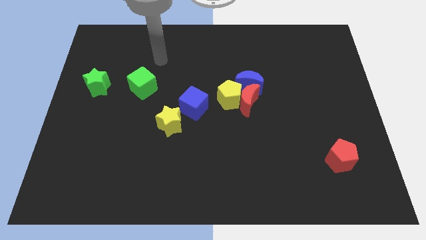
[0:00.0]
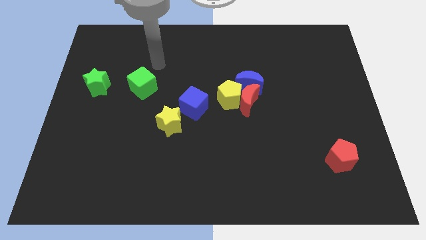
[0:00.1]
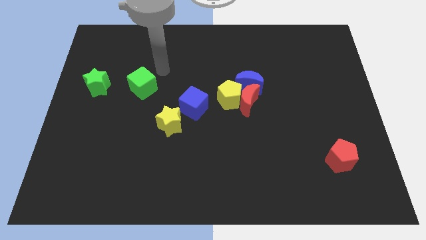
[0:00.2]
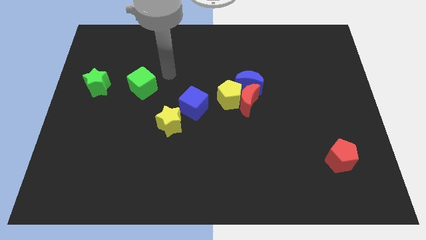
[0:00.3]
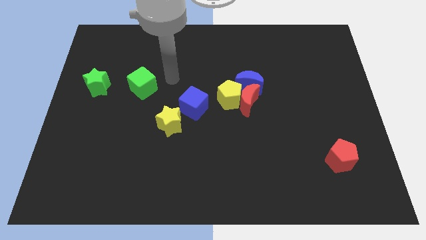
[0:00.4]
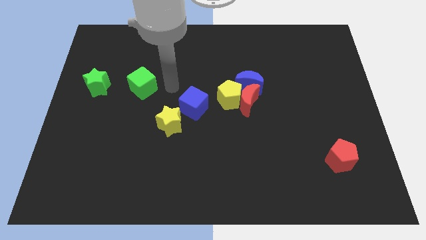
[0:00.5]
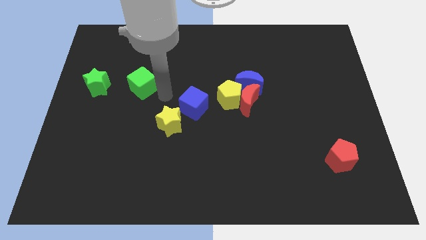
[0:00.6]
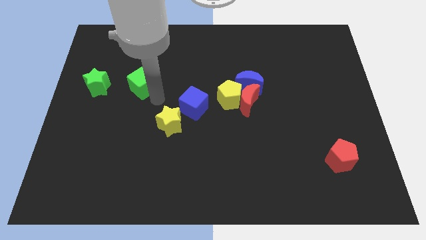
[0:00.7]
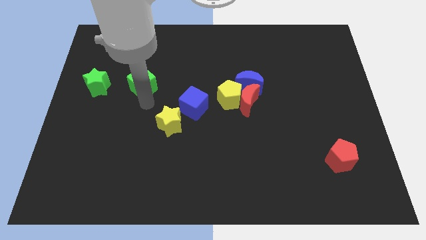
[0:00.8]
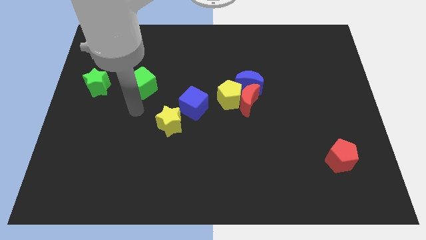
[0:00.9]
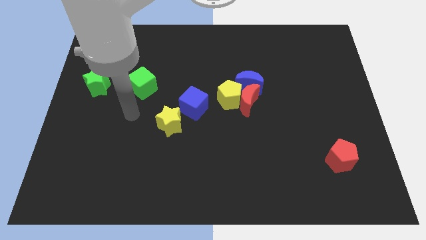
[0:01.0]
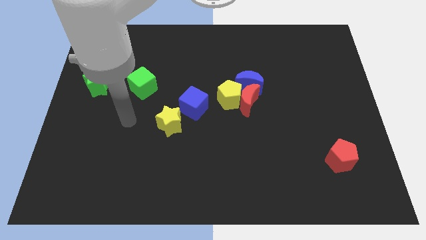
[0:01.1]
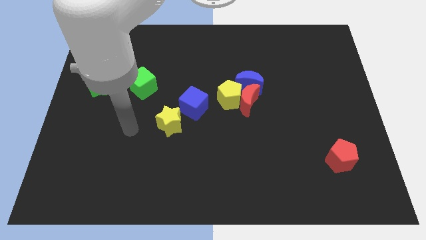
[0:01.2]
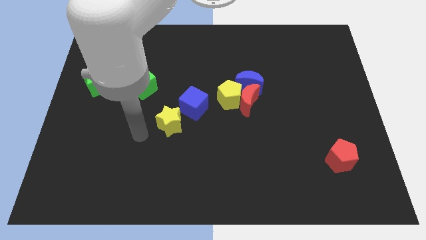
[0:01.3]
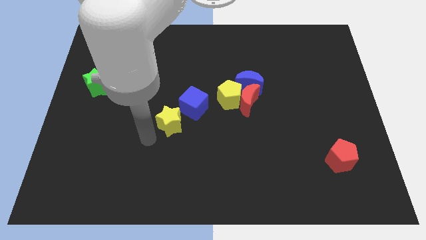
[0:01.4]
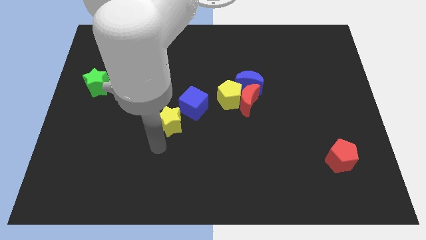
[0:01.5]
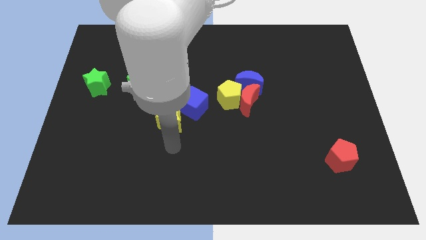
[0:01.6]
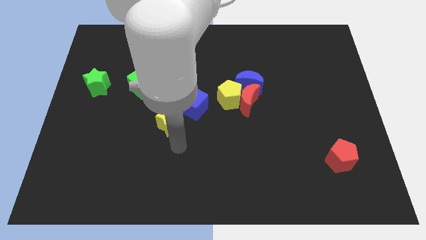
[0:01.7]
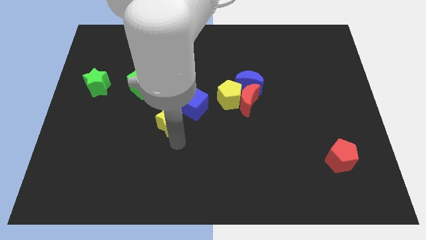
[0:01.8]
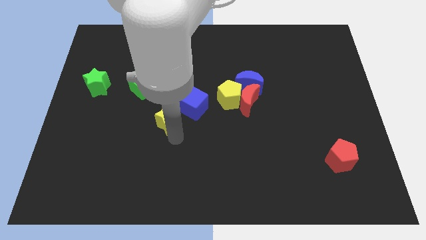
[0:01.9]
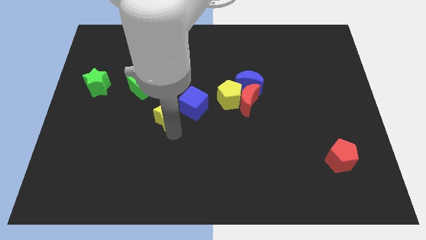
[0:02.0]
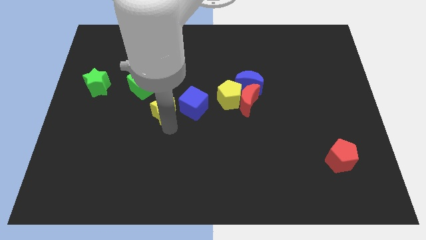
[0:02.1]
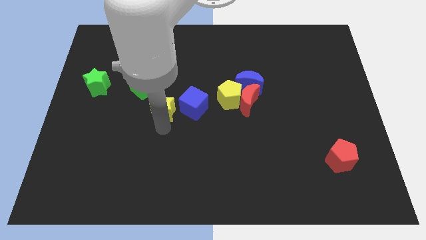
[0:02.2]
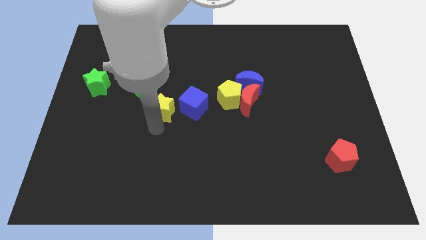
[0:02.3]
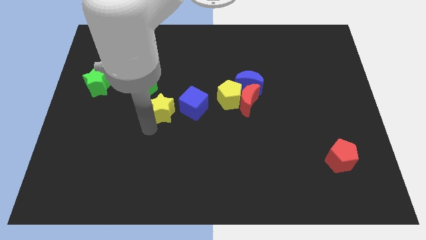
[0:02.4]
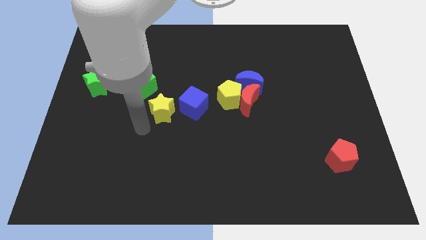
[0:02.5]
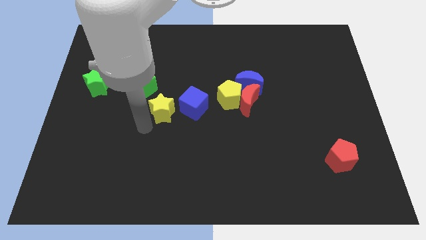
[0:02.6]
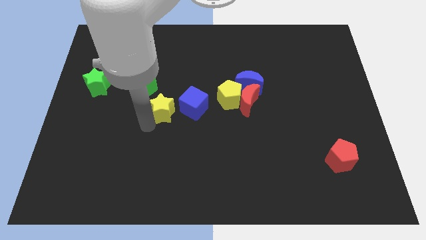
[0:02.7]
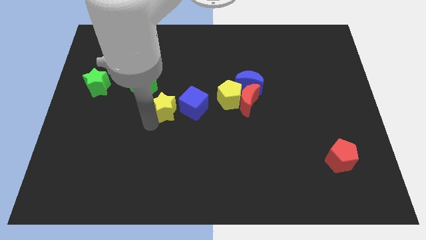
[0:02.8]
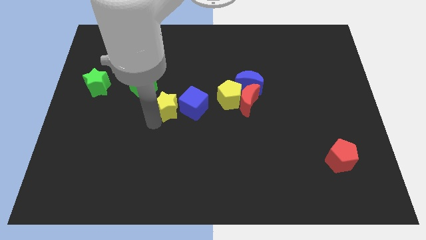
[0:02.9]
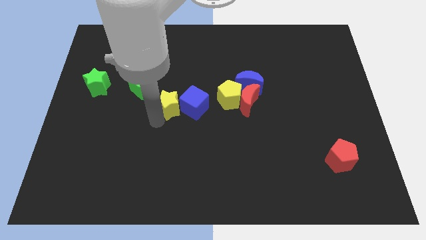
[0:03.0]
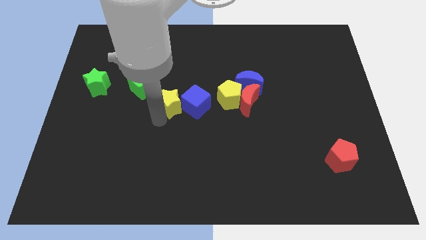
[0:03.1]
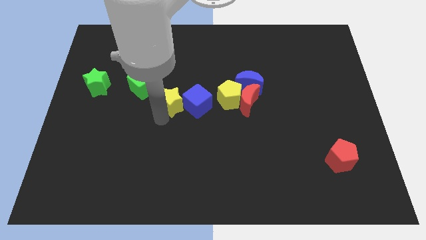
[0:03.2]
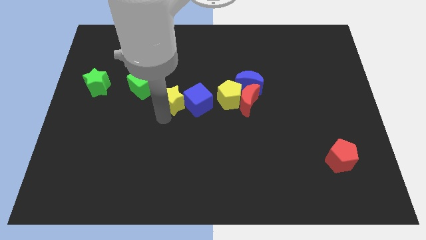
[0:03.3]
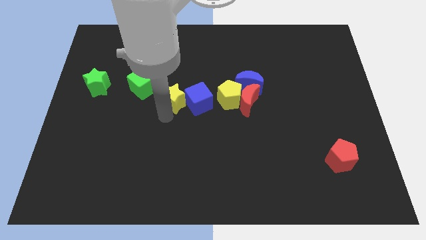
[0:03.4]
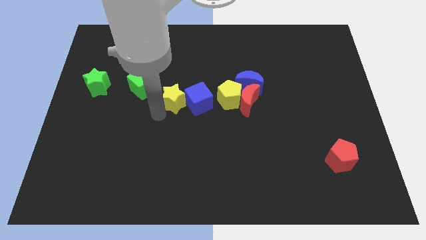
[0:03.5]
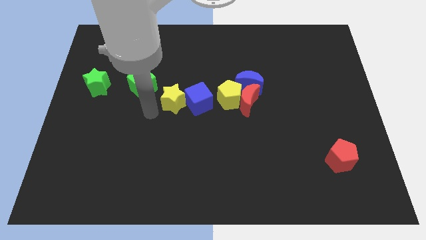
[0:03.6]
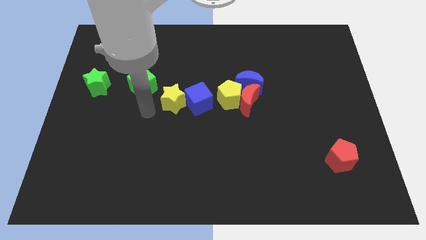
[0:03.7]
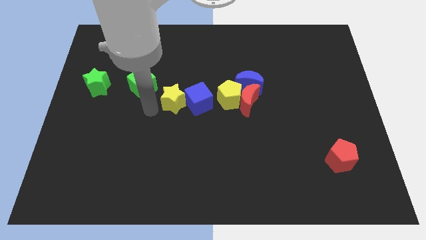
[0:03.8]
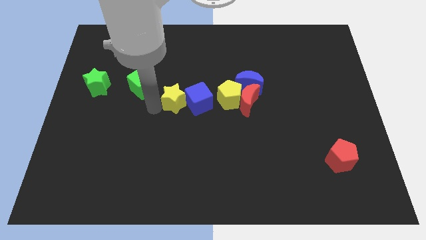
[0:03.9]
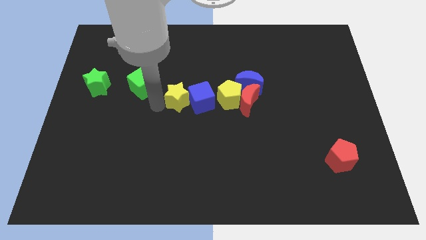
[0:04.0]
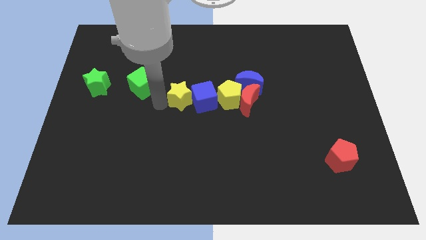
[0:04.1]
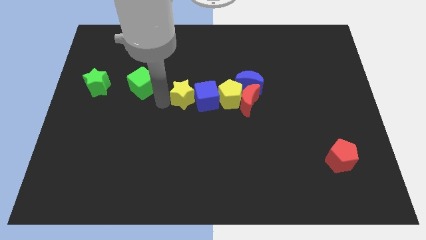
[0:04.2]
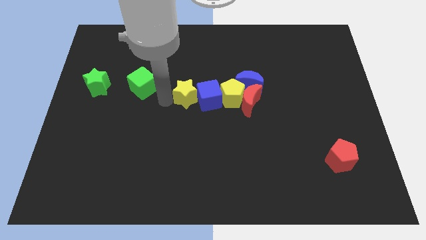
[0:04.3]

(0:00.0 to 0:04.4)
slightly move the yellow star up and to the right diagonally

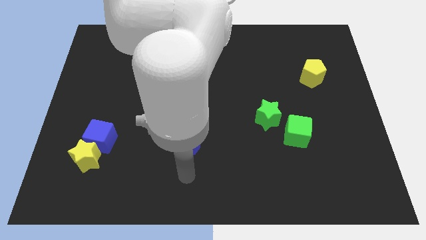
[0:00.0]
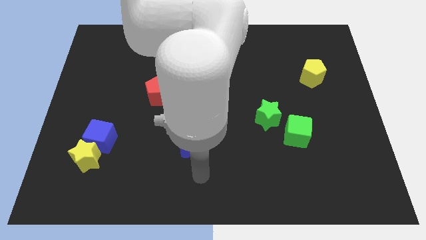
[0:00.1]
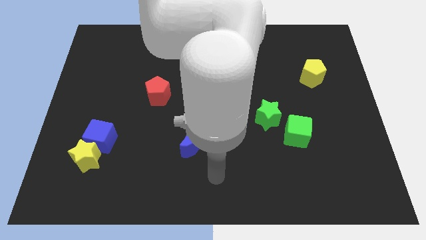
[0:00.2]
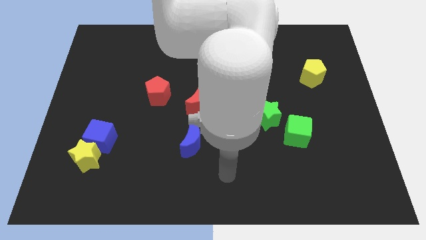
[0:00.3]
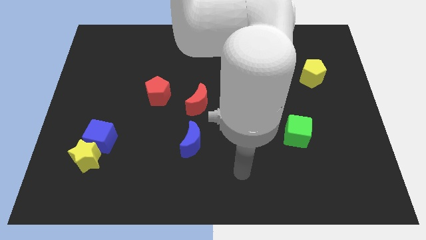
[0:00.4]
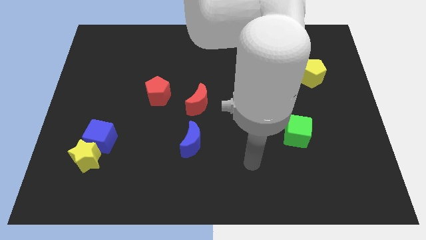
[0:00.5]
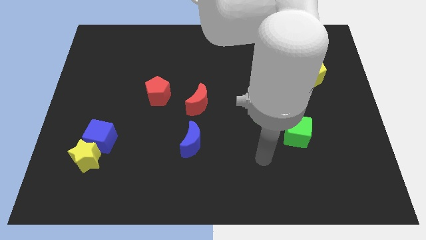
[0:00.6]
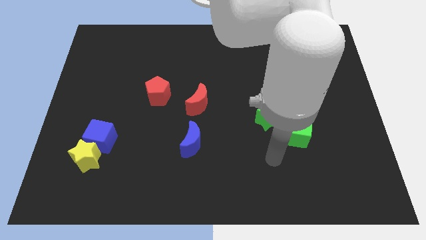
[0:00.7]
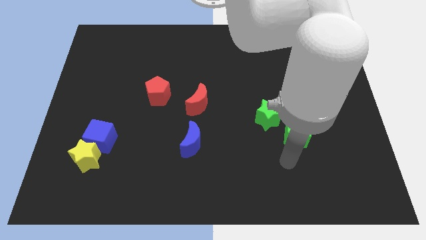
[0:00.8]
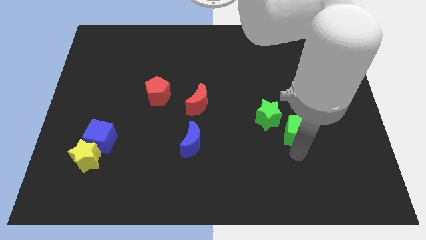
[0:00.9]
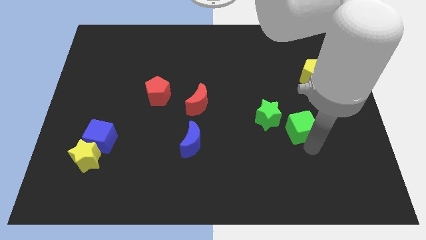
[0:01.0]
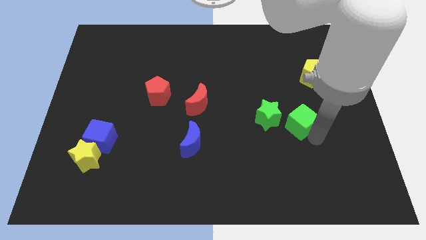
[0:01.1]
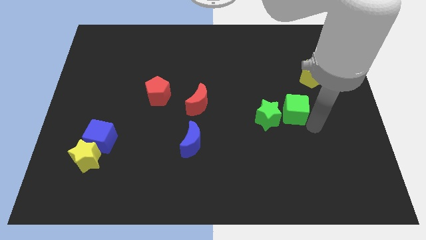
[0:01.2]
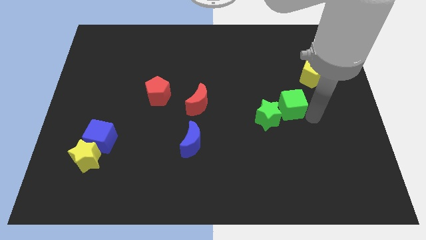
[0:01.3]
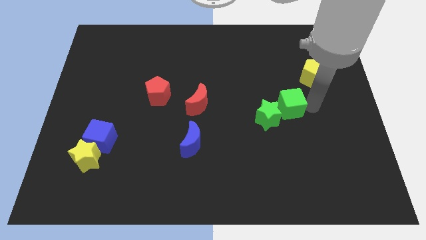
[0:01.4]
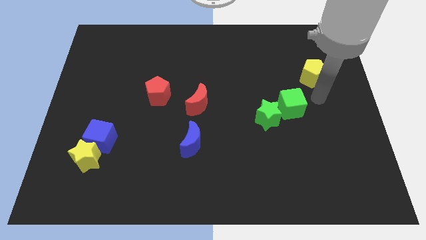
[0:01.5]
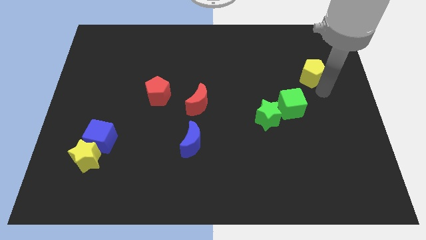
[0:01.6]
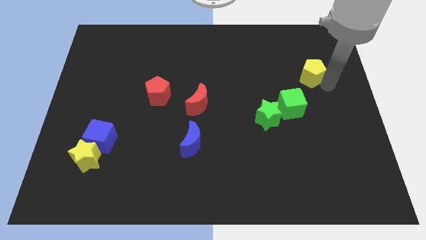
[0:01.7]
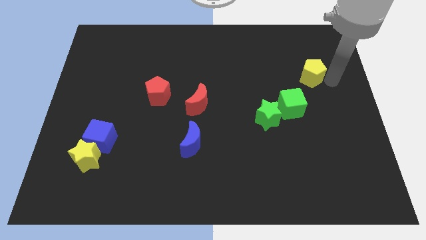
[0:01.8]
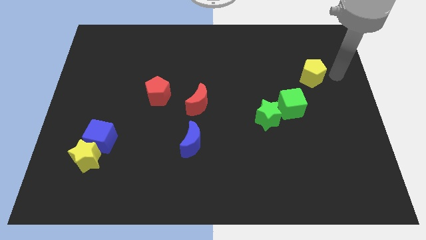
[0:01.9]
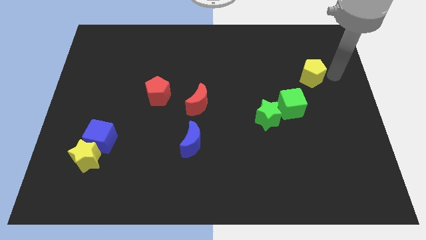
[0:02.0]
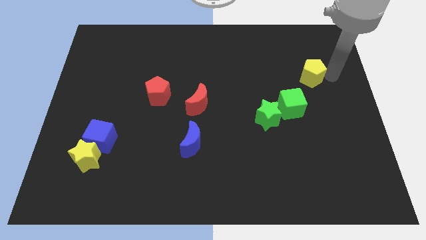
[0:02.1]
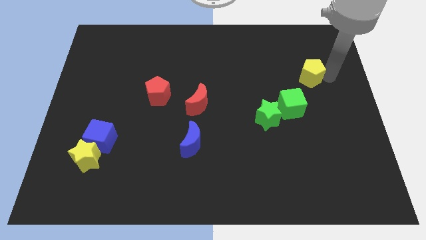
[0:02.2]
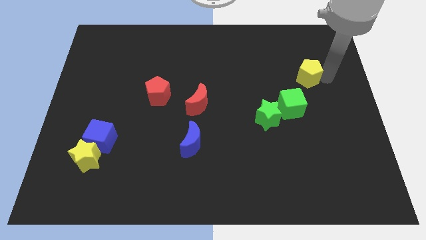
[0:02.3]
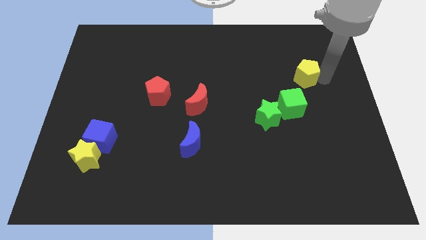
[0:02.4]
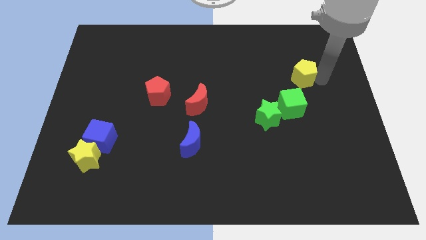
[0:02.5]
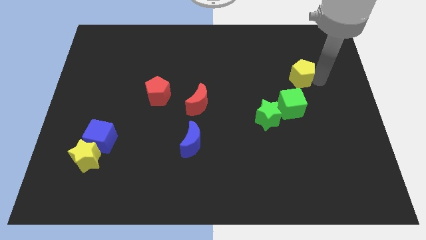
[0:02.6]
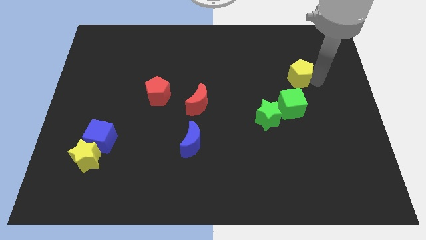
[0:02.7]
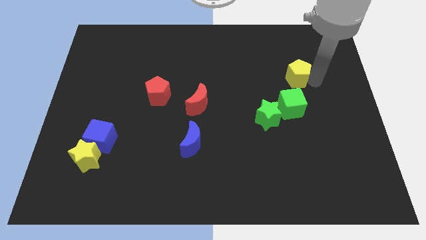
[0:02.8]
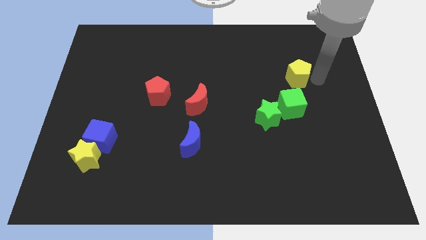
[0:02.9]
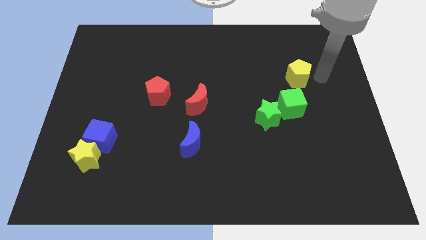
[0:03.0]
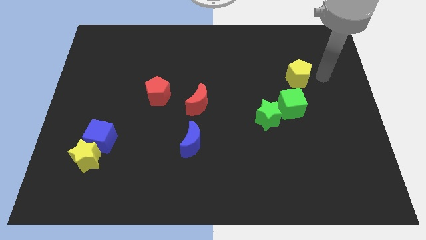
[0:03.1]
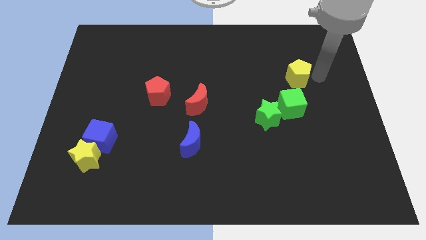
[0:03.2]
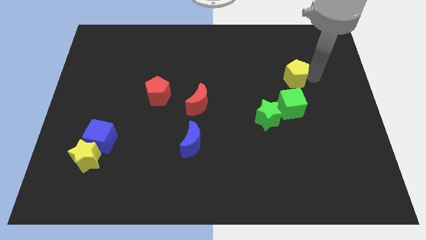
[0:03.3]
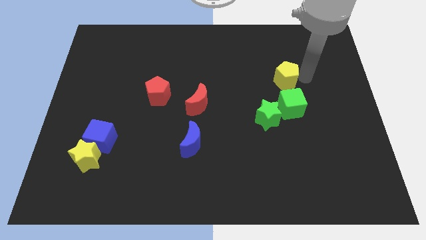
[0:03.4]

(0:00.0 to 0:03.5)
slide the yellow pentagon somewhat to the left

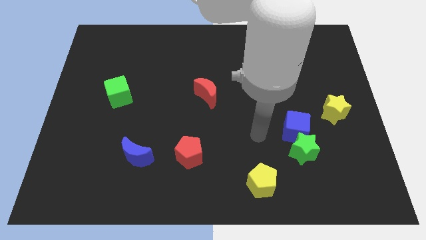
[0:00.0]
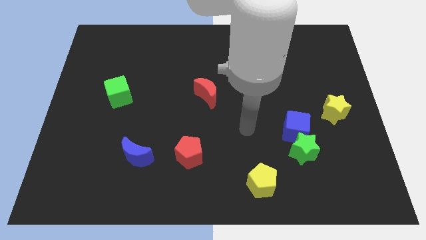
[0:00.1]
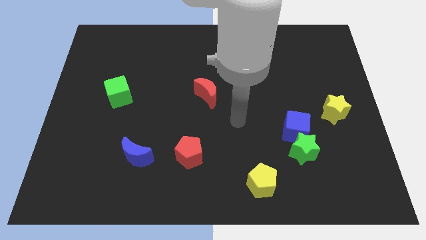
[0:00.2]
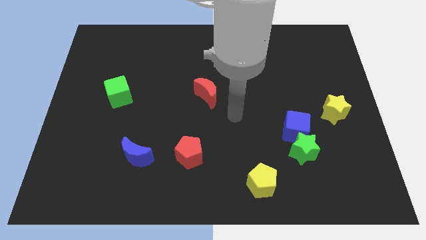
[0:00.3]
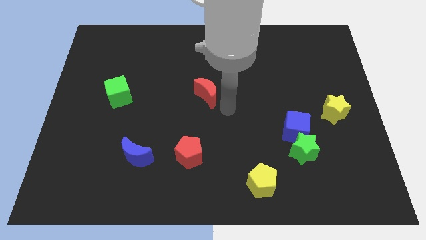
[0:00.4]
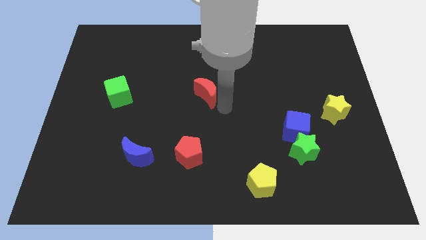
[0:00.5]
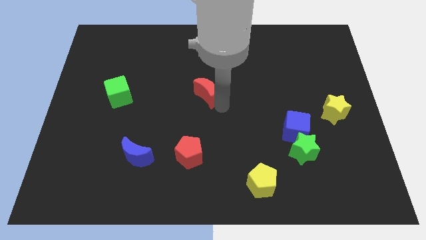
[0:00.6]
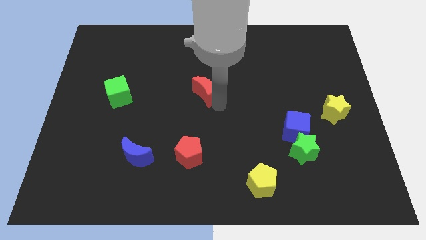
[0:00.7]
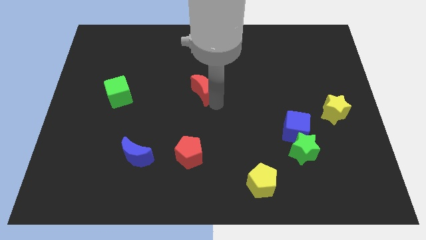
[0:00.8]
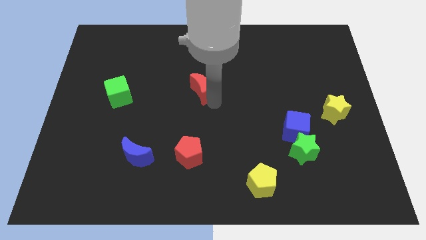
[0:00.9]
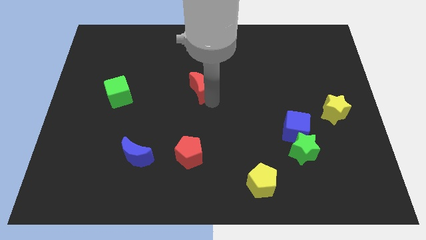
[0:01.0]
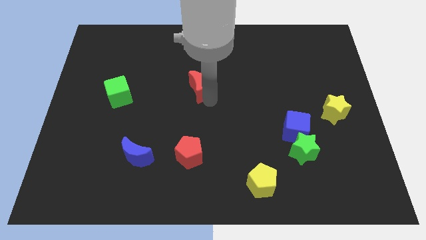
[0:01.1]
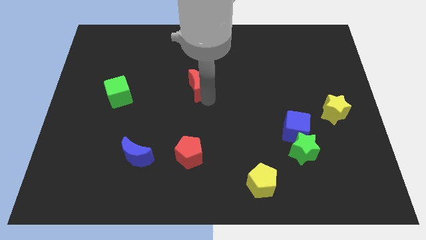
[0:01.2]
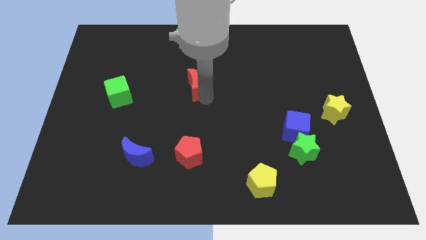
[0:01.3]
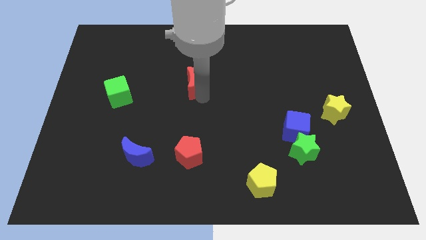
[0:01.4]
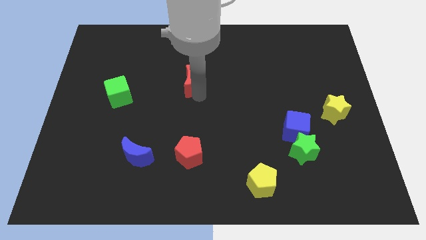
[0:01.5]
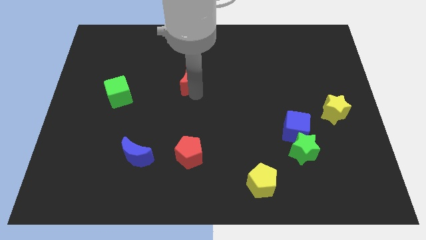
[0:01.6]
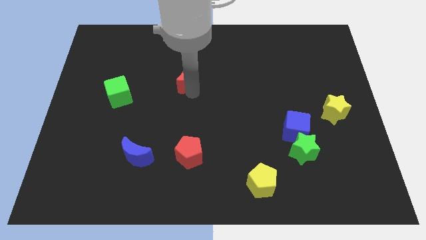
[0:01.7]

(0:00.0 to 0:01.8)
push the red moon up and then to the left somewhat
